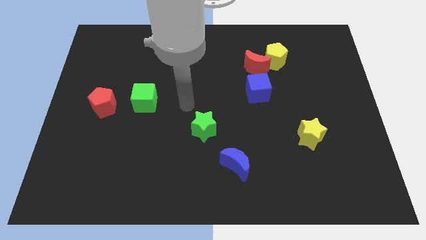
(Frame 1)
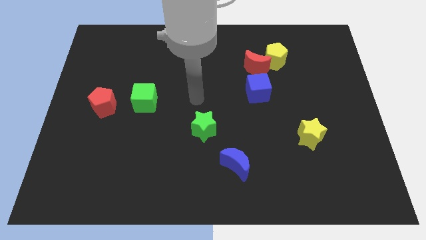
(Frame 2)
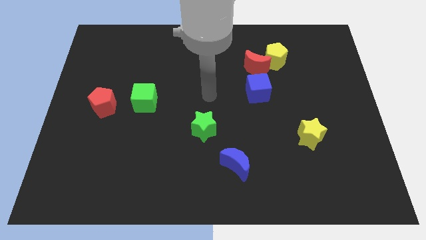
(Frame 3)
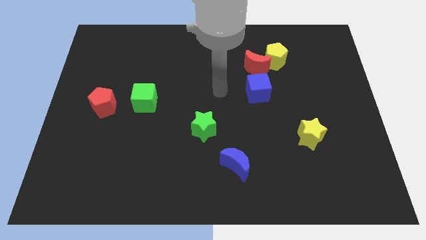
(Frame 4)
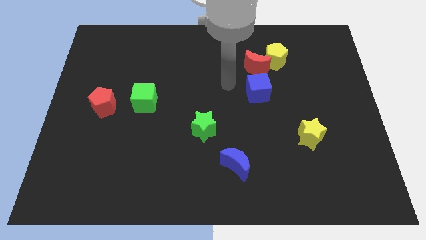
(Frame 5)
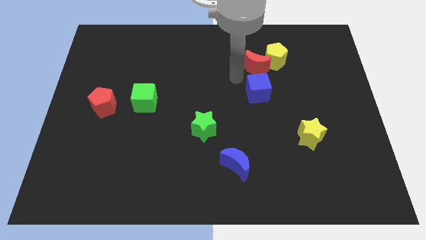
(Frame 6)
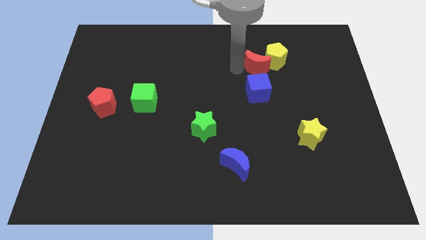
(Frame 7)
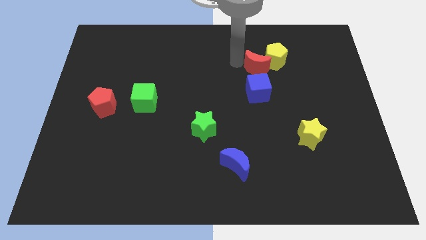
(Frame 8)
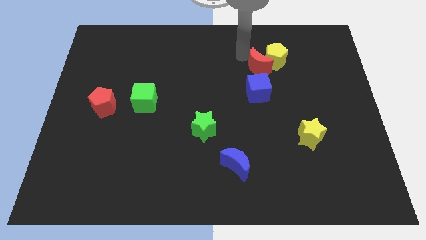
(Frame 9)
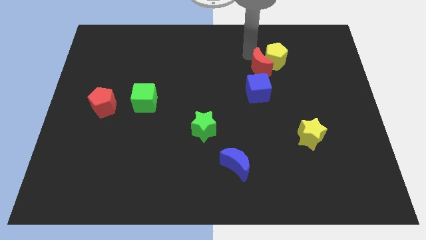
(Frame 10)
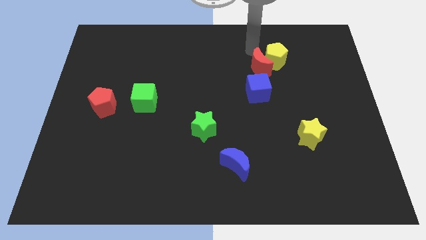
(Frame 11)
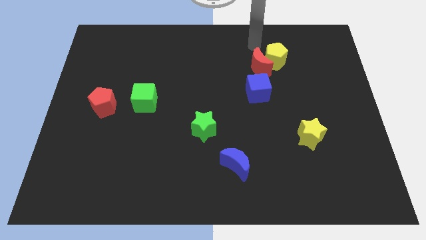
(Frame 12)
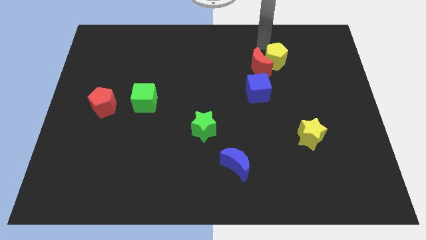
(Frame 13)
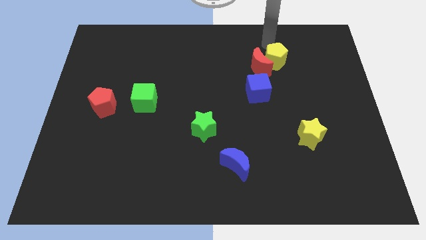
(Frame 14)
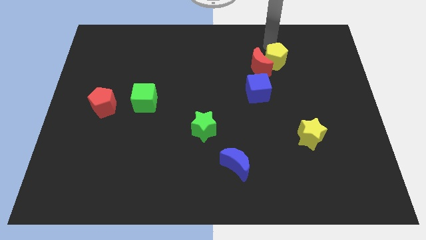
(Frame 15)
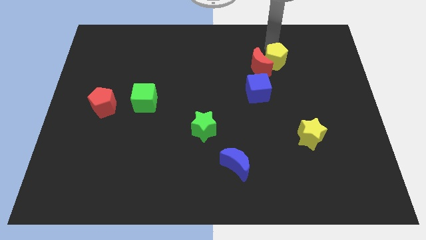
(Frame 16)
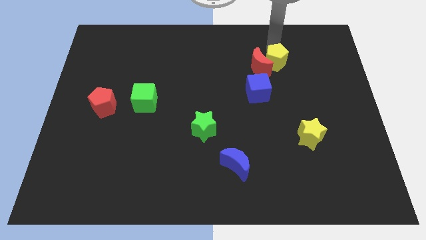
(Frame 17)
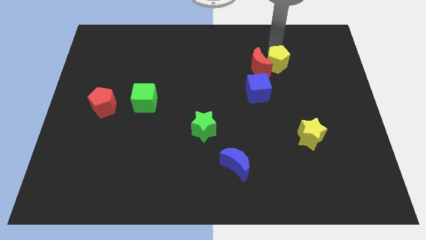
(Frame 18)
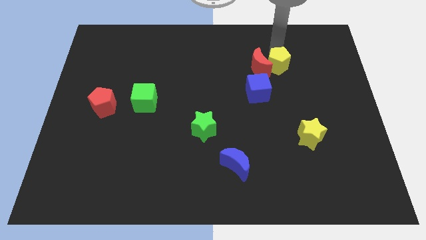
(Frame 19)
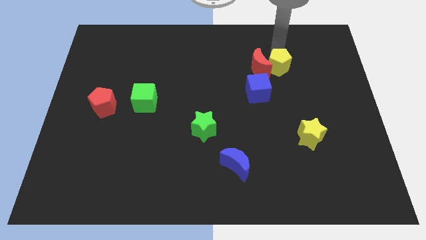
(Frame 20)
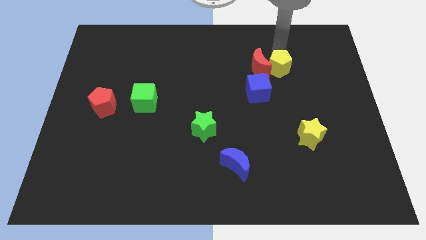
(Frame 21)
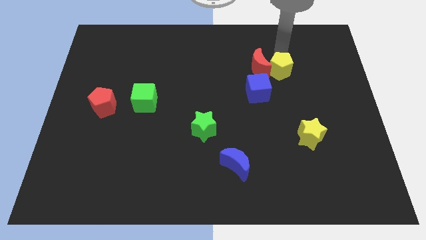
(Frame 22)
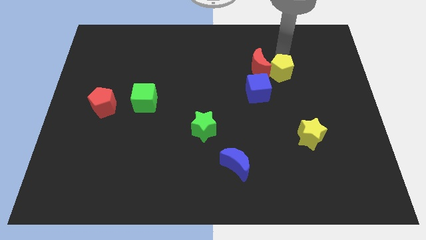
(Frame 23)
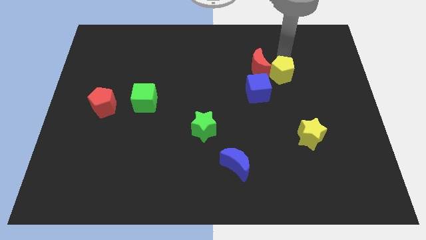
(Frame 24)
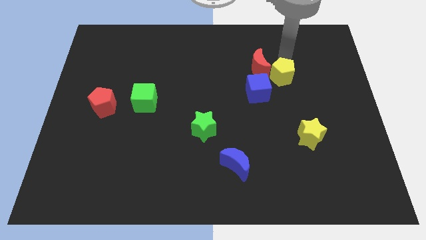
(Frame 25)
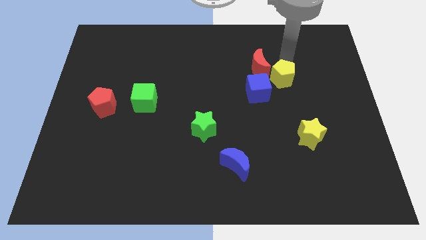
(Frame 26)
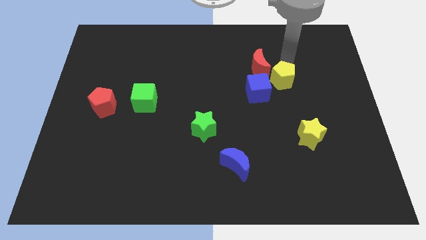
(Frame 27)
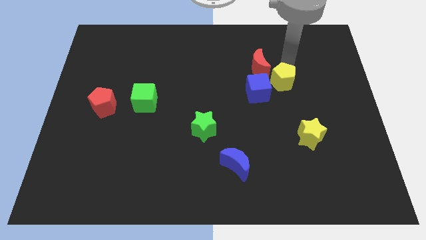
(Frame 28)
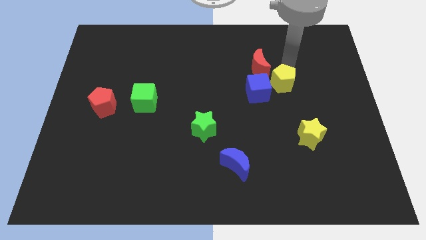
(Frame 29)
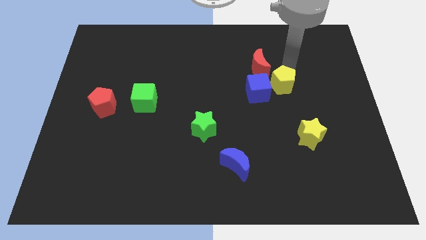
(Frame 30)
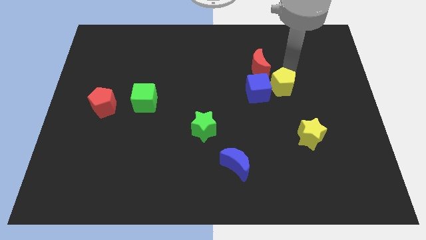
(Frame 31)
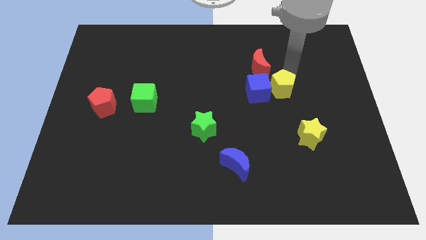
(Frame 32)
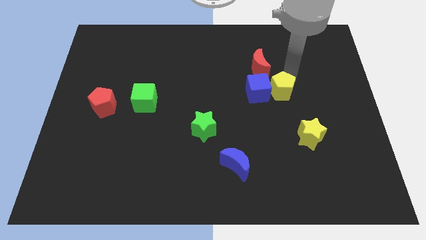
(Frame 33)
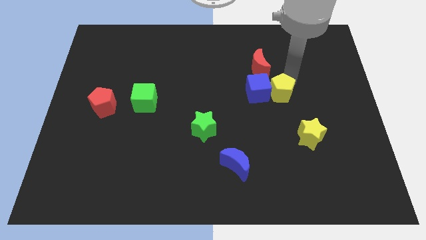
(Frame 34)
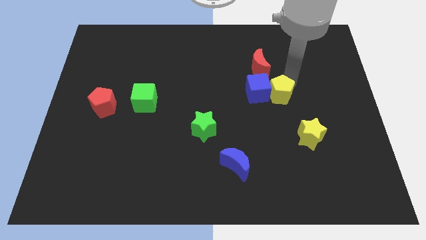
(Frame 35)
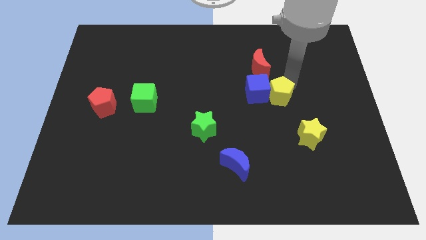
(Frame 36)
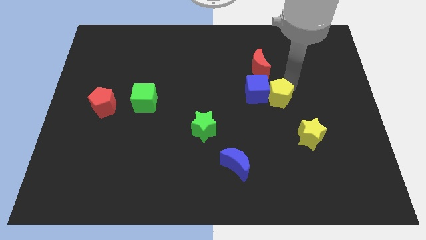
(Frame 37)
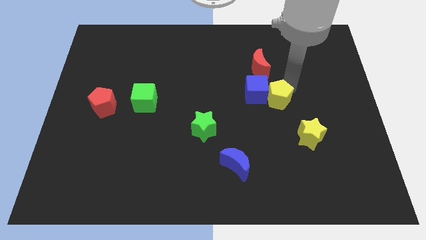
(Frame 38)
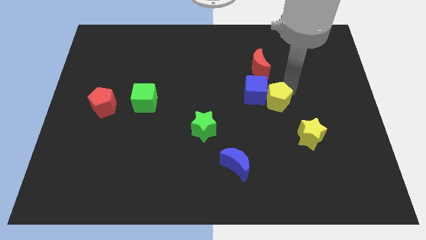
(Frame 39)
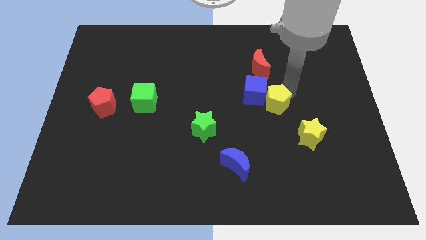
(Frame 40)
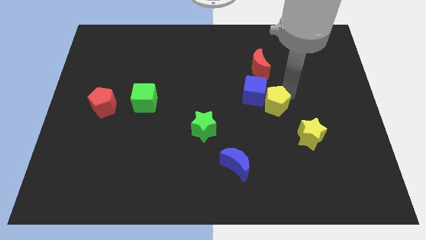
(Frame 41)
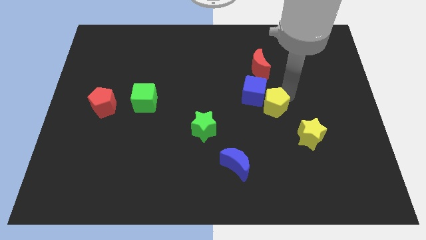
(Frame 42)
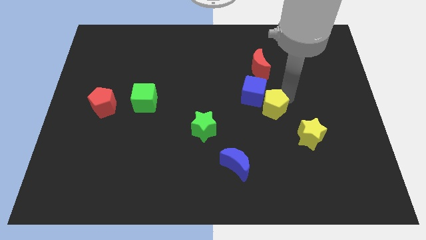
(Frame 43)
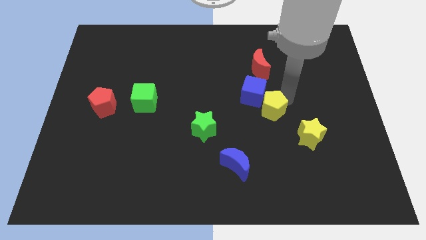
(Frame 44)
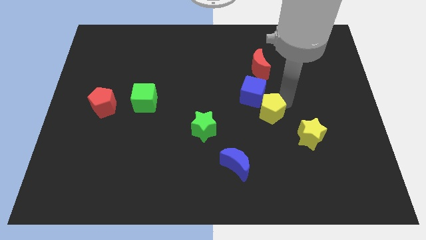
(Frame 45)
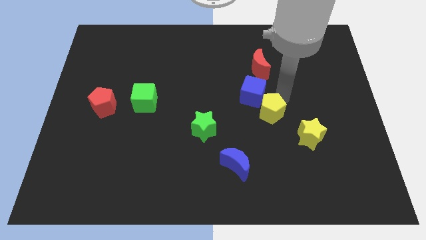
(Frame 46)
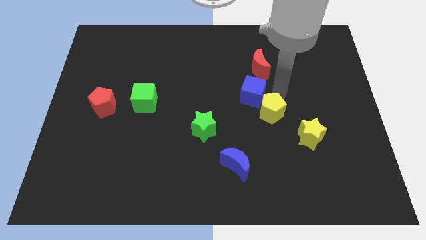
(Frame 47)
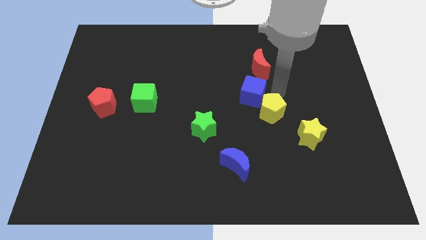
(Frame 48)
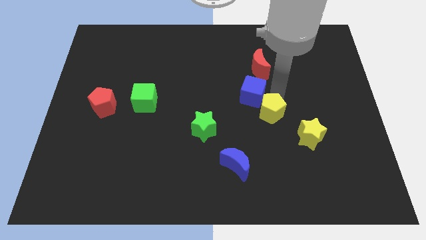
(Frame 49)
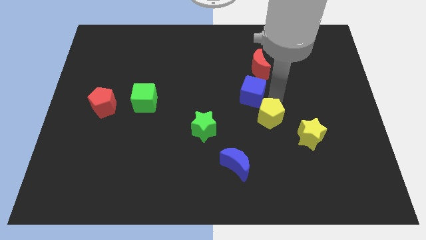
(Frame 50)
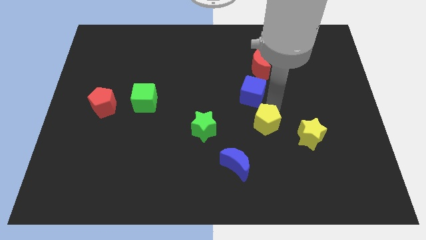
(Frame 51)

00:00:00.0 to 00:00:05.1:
move the yellow pentagon just left of the yellow star

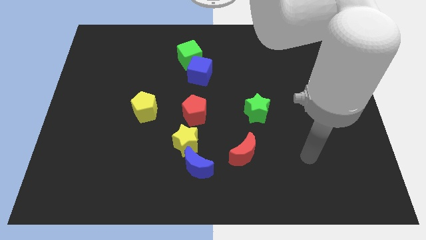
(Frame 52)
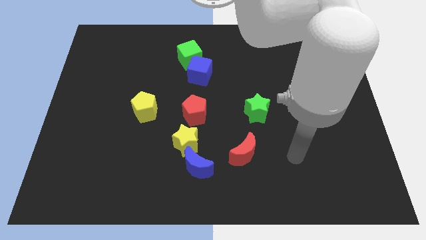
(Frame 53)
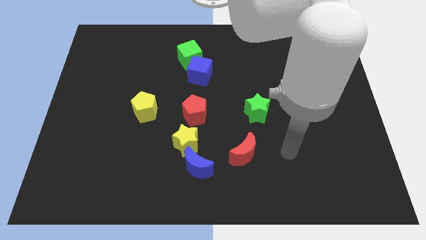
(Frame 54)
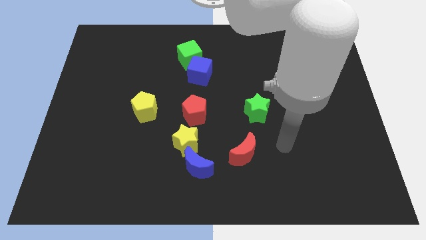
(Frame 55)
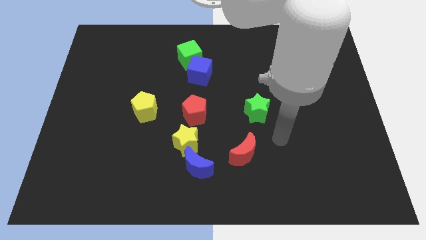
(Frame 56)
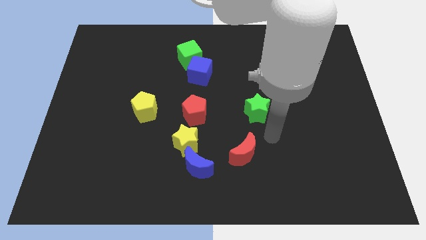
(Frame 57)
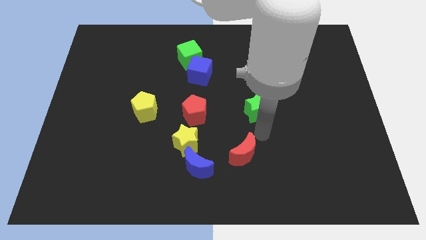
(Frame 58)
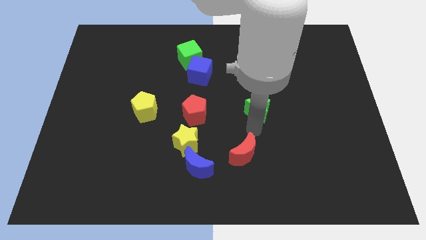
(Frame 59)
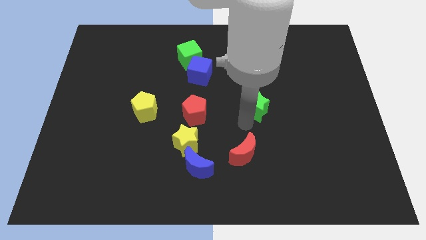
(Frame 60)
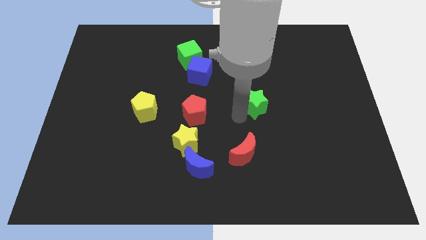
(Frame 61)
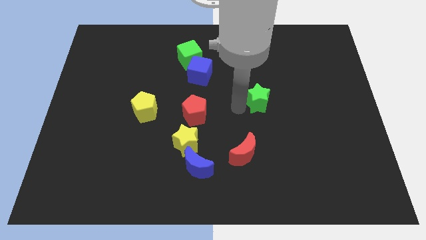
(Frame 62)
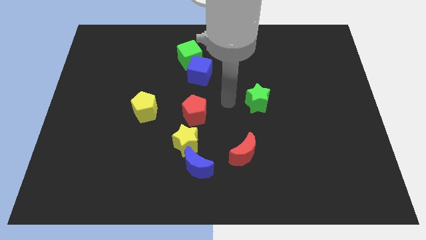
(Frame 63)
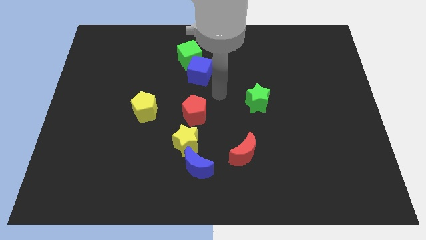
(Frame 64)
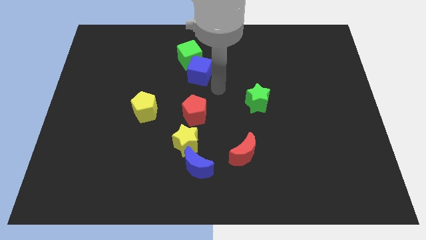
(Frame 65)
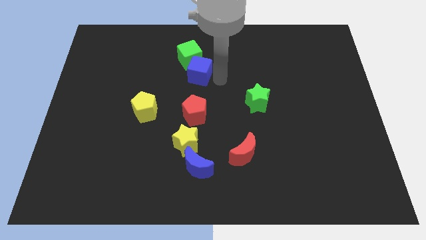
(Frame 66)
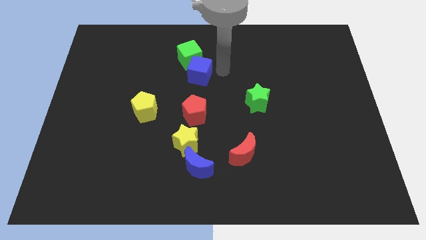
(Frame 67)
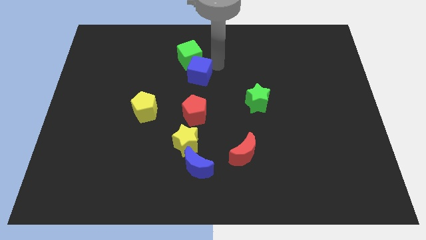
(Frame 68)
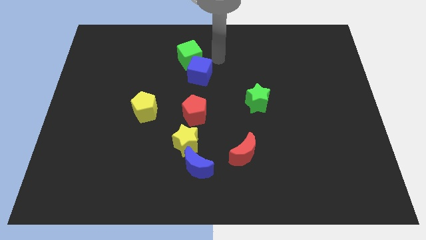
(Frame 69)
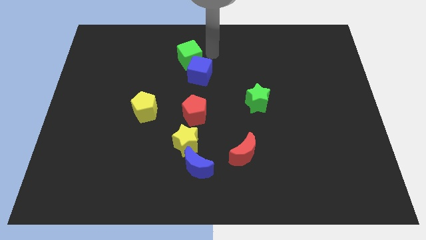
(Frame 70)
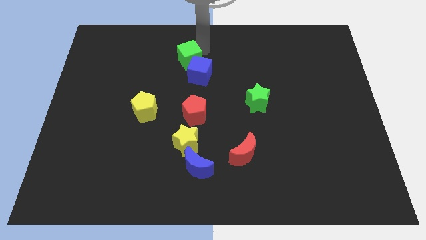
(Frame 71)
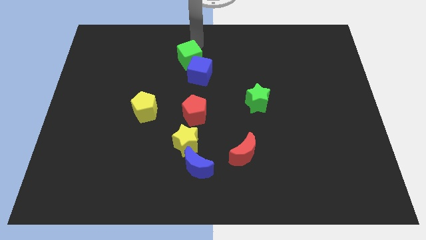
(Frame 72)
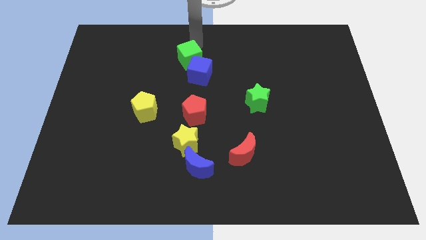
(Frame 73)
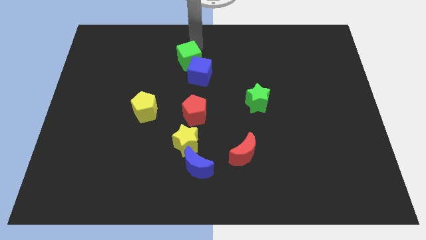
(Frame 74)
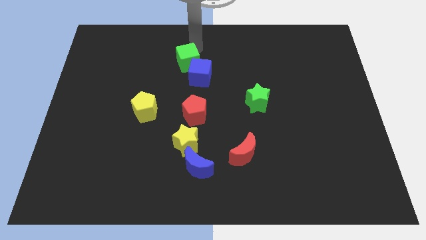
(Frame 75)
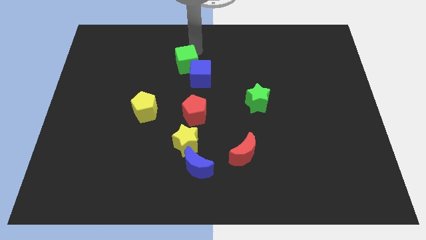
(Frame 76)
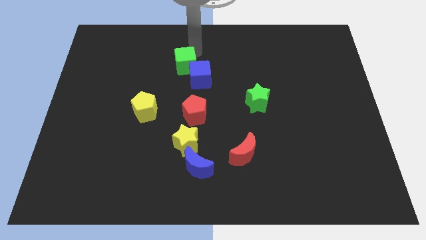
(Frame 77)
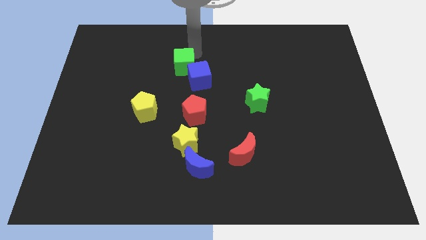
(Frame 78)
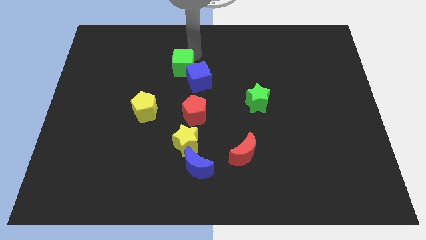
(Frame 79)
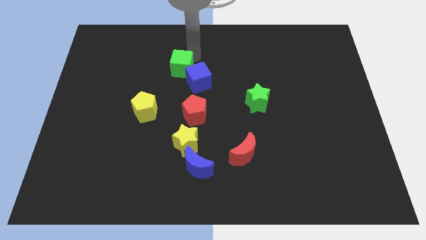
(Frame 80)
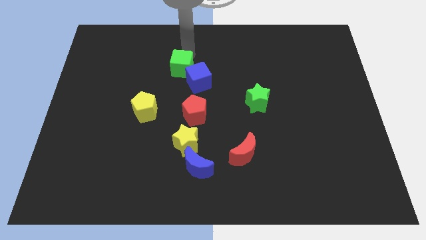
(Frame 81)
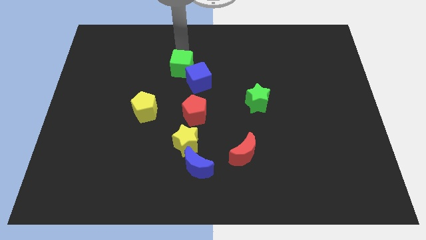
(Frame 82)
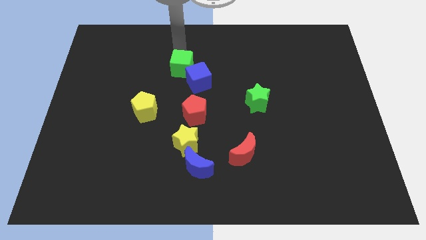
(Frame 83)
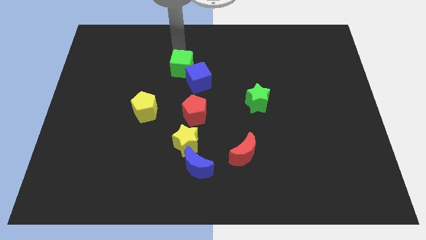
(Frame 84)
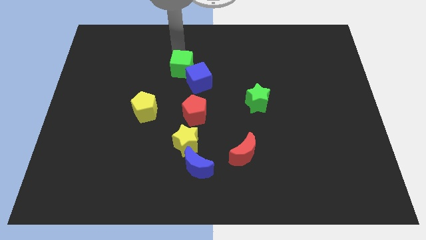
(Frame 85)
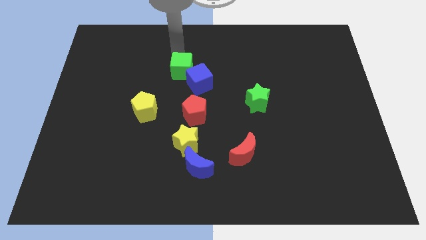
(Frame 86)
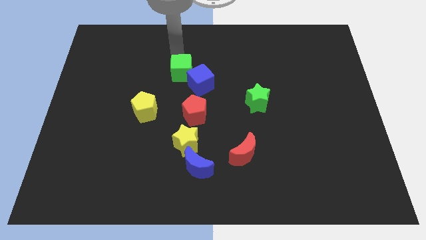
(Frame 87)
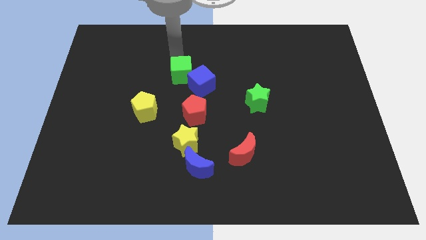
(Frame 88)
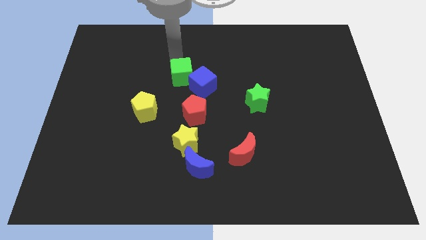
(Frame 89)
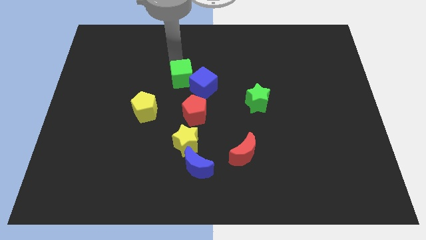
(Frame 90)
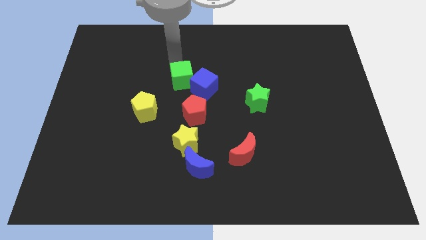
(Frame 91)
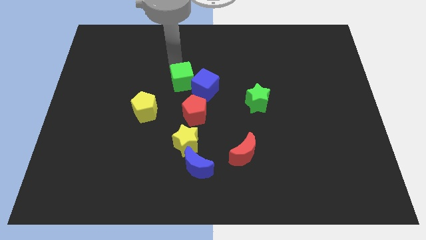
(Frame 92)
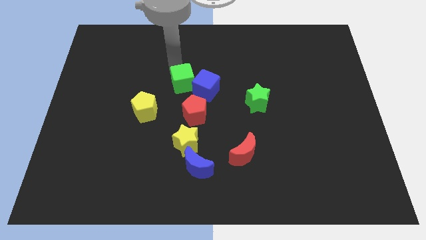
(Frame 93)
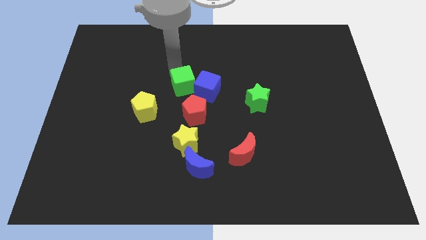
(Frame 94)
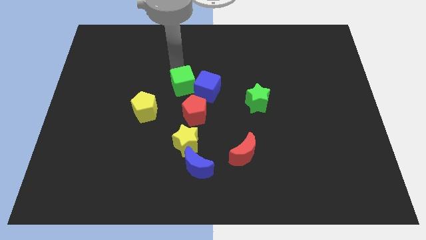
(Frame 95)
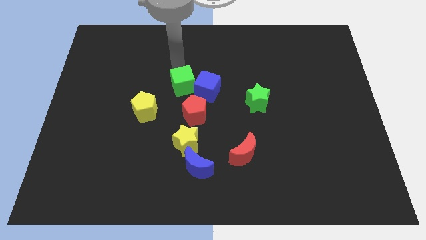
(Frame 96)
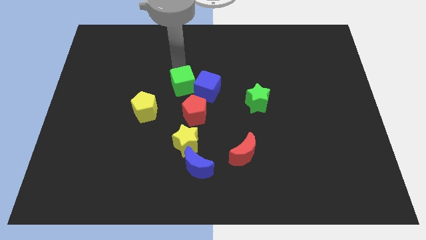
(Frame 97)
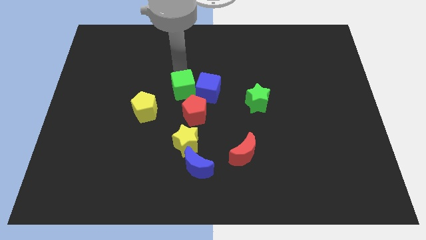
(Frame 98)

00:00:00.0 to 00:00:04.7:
move the green cube to the top of the yellow star
